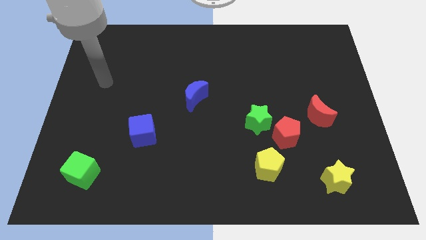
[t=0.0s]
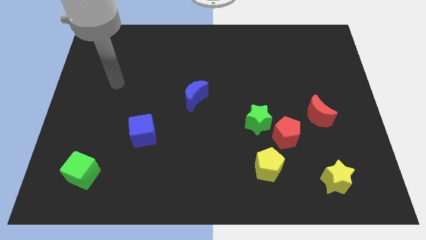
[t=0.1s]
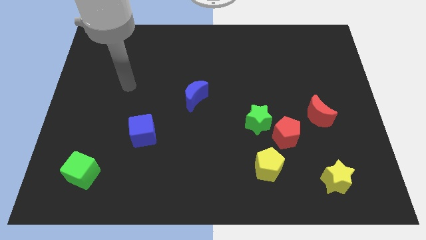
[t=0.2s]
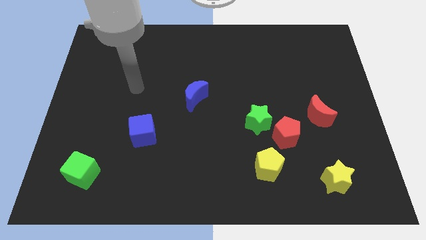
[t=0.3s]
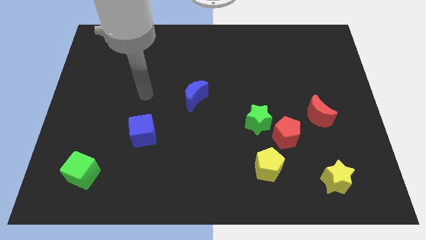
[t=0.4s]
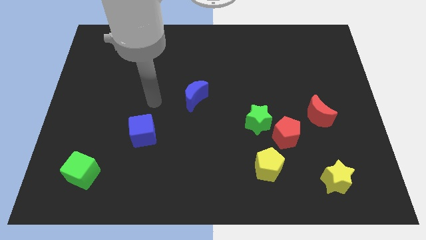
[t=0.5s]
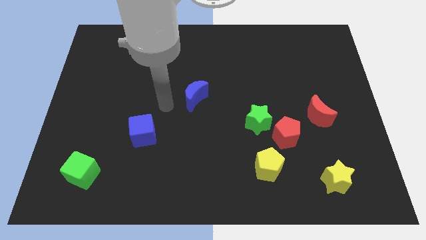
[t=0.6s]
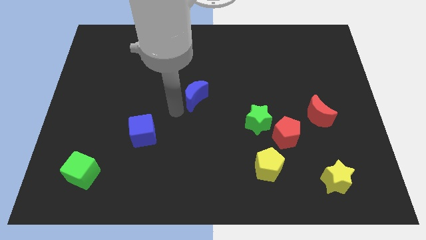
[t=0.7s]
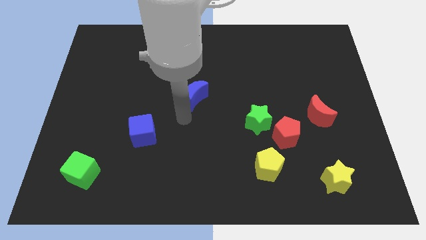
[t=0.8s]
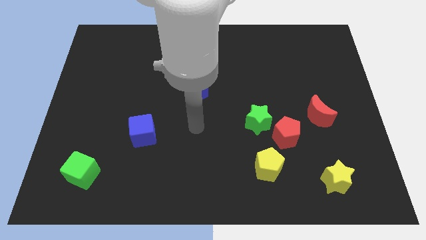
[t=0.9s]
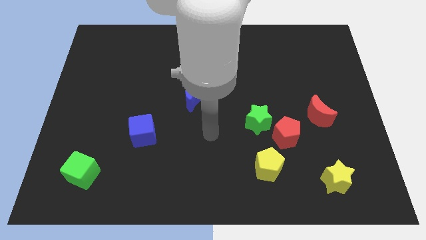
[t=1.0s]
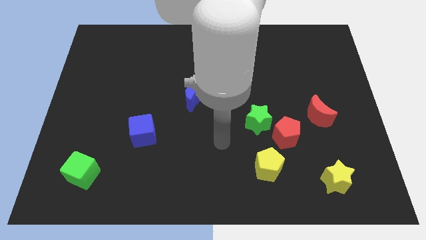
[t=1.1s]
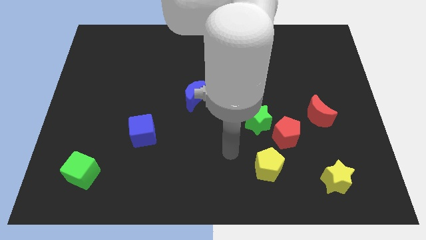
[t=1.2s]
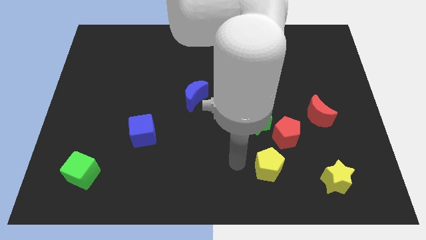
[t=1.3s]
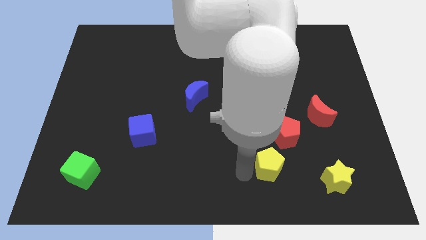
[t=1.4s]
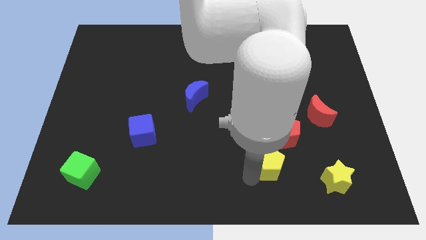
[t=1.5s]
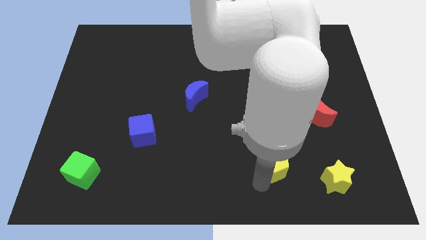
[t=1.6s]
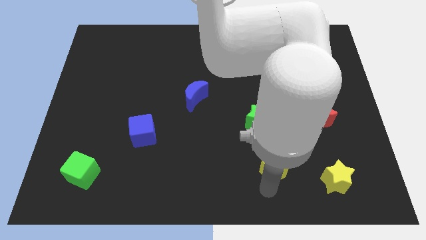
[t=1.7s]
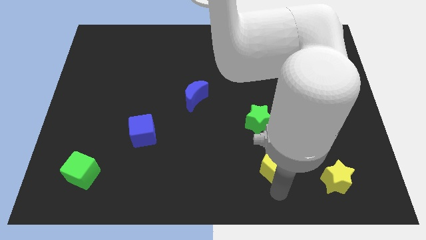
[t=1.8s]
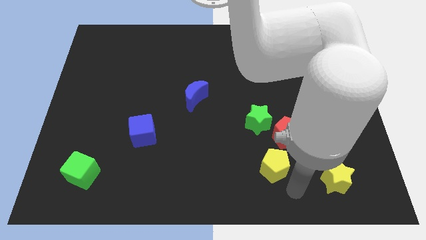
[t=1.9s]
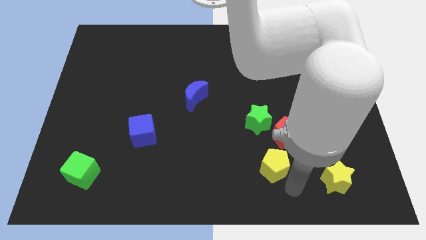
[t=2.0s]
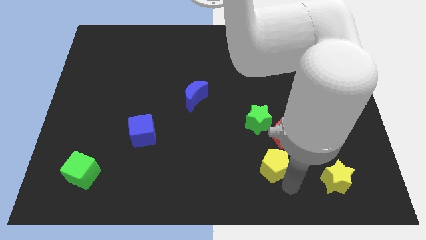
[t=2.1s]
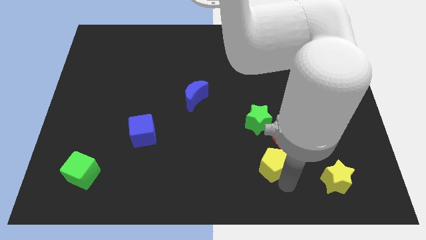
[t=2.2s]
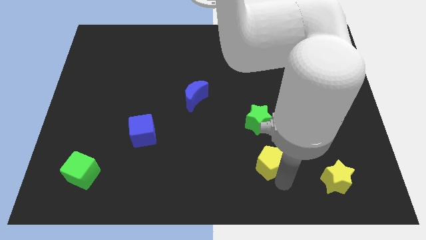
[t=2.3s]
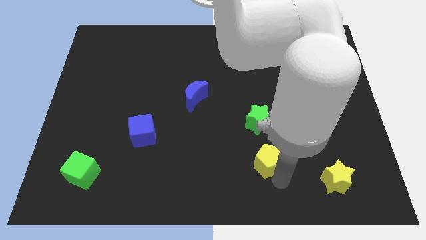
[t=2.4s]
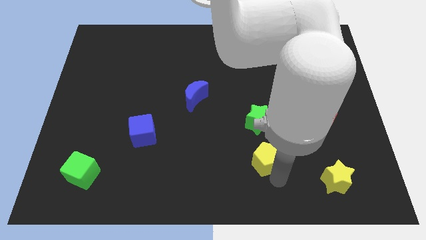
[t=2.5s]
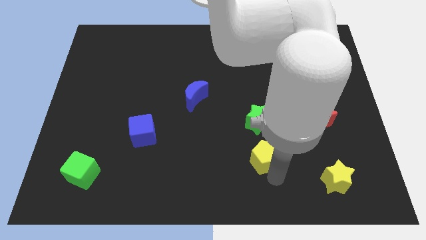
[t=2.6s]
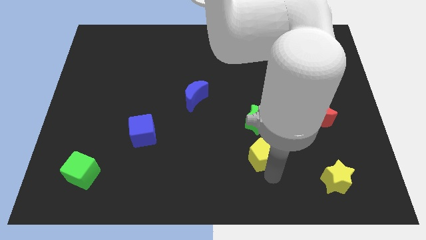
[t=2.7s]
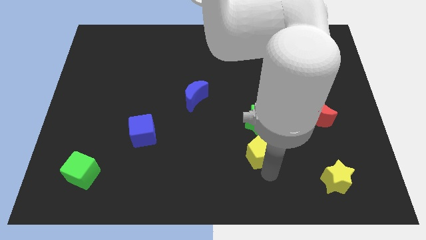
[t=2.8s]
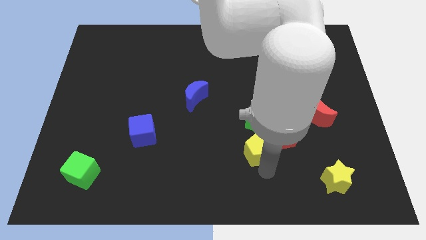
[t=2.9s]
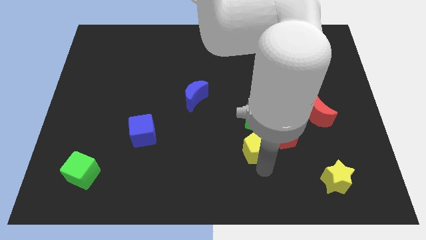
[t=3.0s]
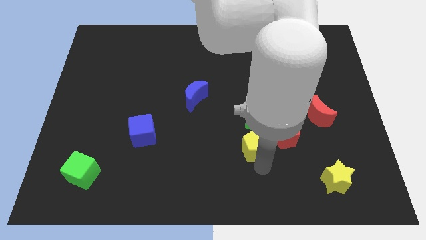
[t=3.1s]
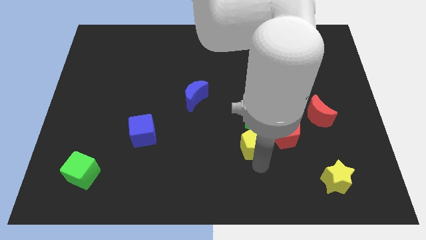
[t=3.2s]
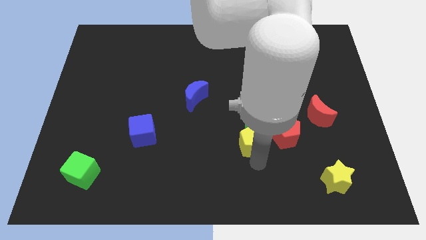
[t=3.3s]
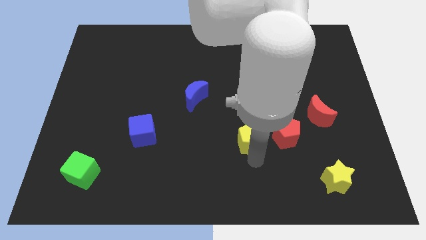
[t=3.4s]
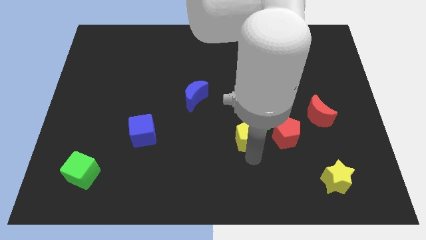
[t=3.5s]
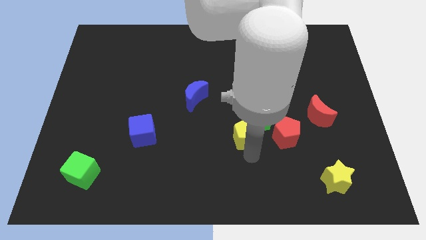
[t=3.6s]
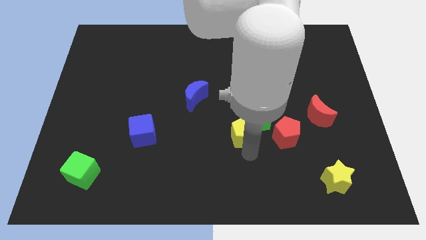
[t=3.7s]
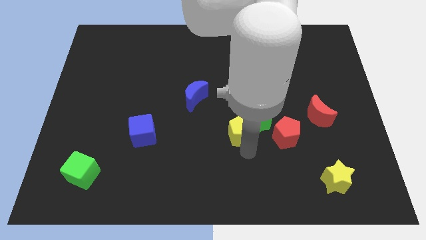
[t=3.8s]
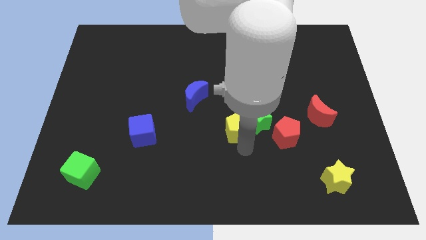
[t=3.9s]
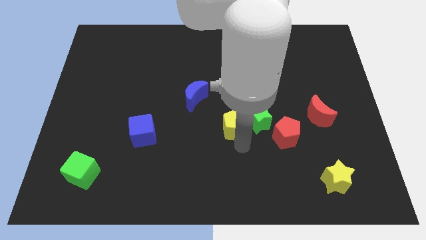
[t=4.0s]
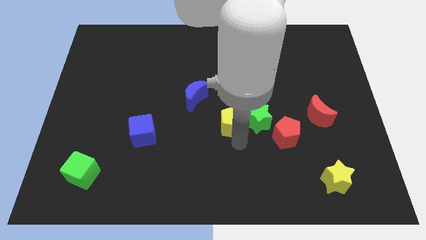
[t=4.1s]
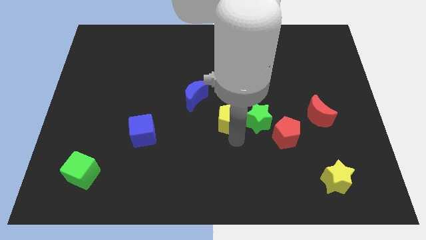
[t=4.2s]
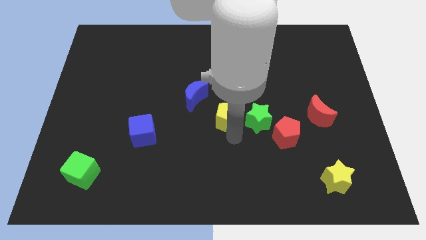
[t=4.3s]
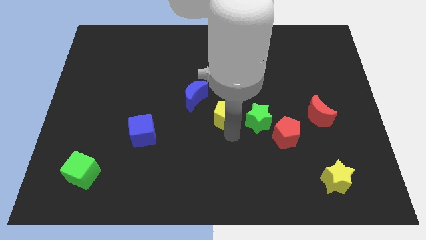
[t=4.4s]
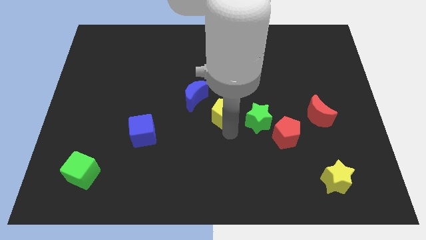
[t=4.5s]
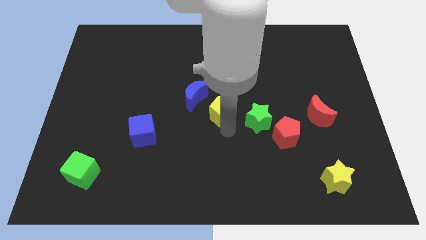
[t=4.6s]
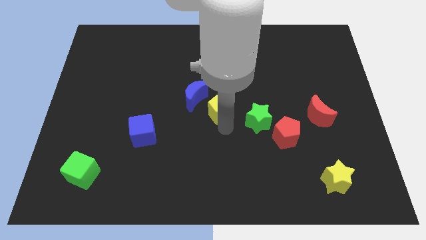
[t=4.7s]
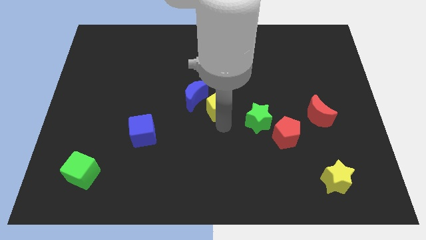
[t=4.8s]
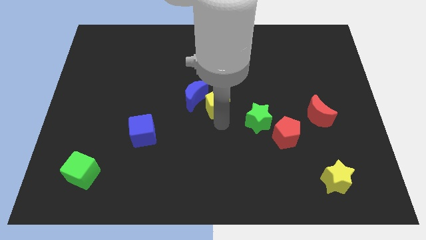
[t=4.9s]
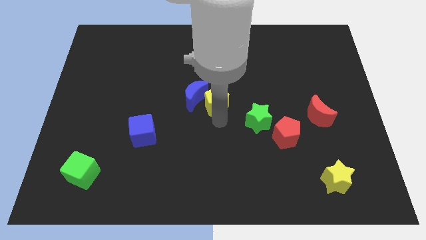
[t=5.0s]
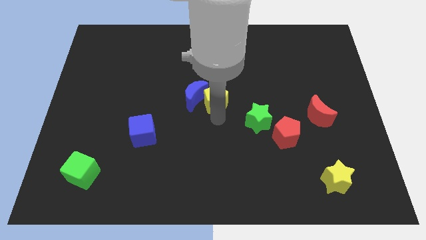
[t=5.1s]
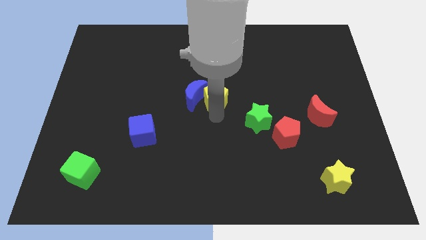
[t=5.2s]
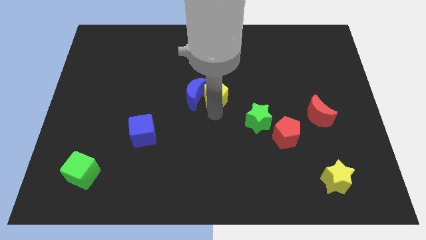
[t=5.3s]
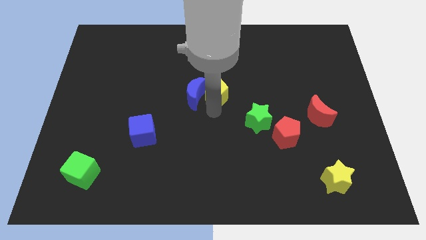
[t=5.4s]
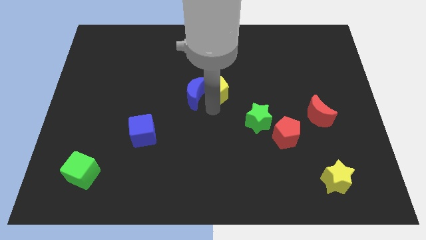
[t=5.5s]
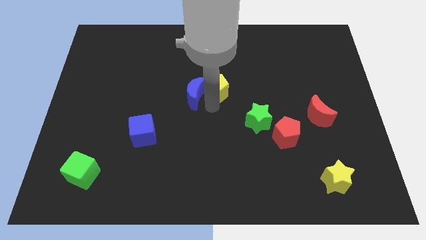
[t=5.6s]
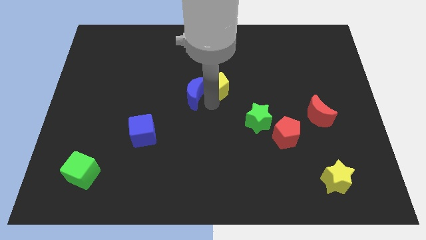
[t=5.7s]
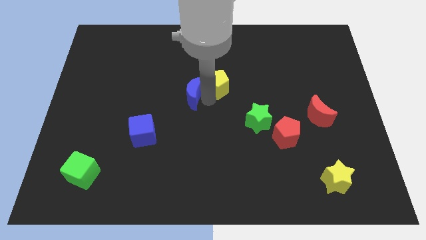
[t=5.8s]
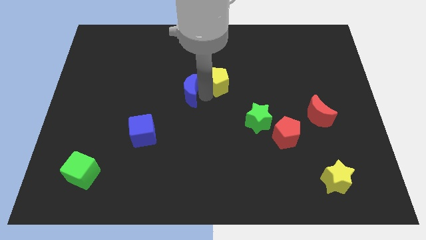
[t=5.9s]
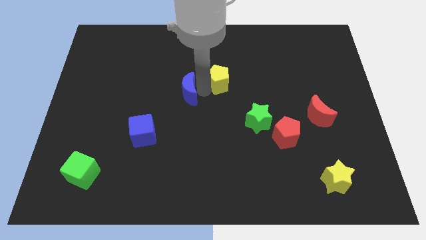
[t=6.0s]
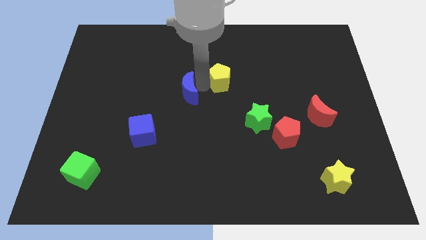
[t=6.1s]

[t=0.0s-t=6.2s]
move the yellow pentagon upwards

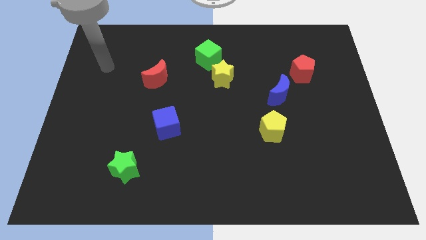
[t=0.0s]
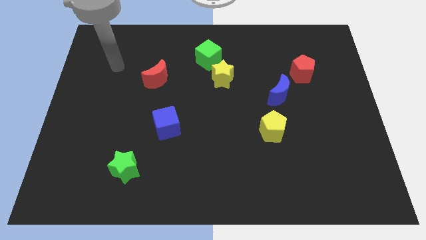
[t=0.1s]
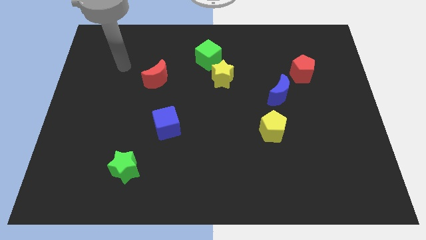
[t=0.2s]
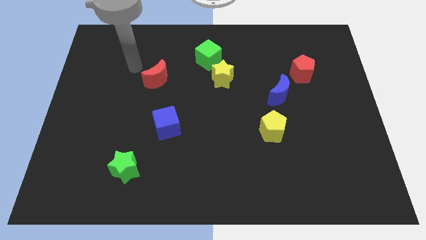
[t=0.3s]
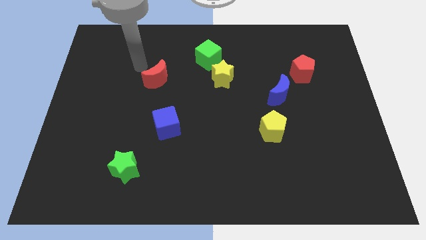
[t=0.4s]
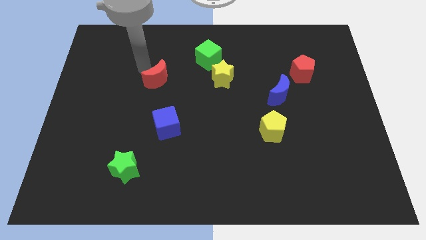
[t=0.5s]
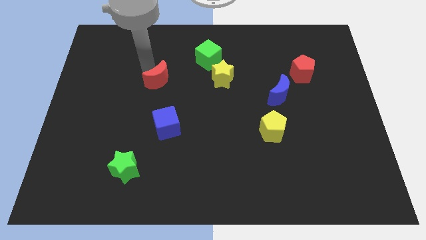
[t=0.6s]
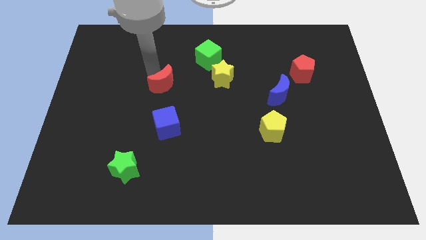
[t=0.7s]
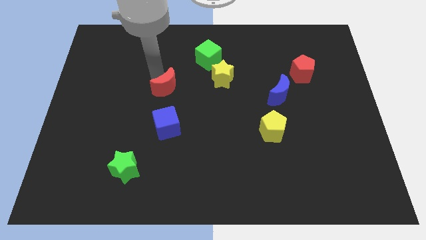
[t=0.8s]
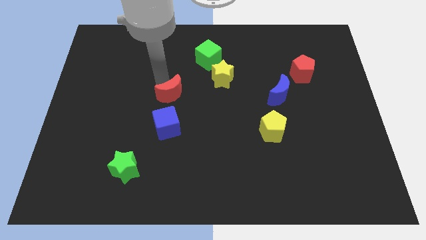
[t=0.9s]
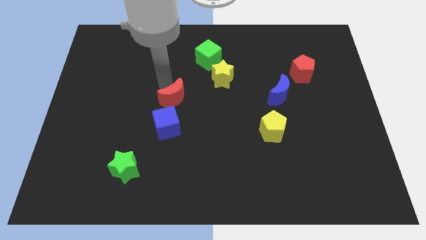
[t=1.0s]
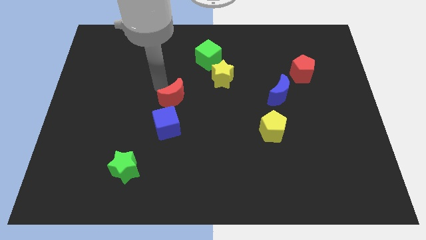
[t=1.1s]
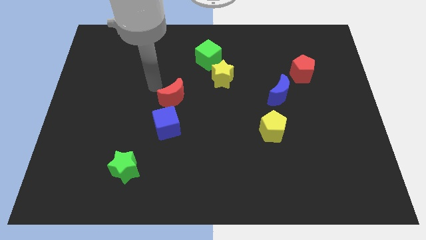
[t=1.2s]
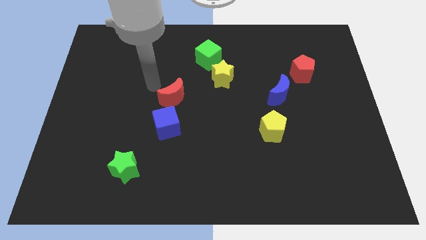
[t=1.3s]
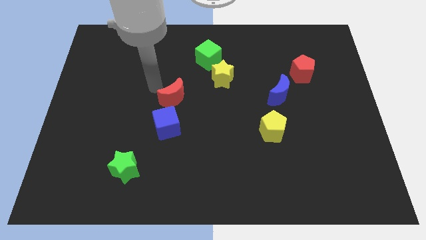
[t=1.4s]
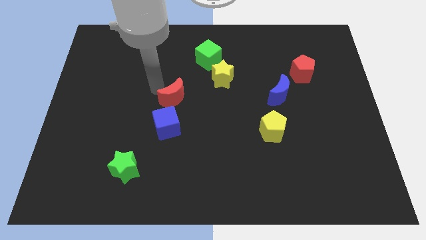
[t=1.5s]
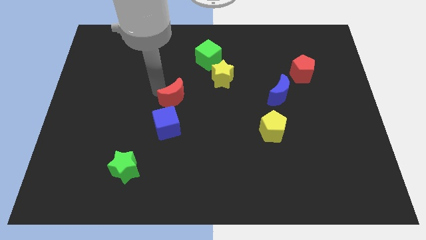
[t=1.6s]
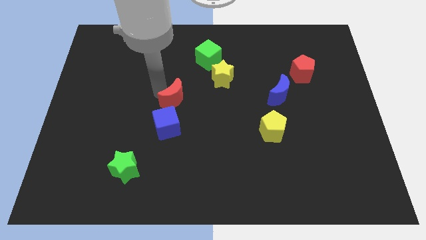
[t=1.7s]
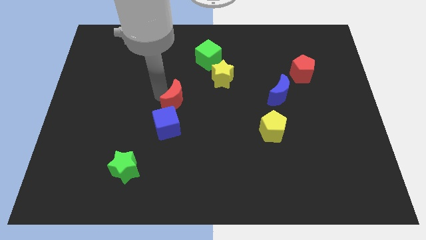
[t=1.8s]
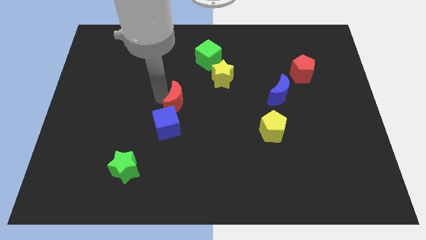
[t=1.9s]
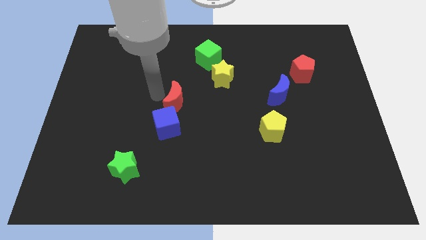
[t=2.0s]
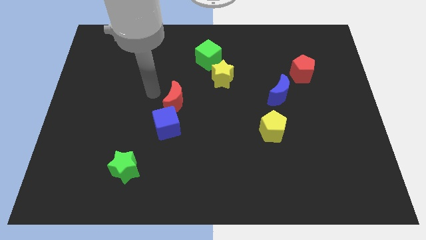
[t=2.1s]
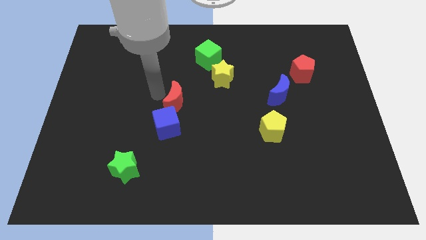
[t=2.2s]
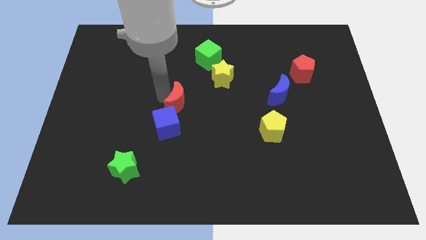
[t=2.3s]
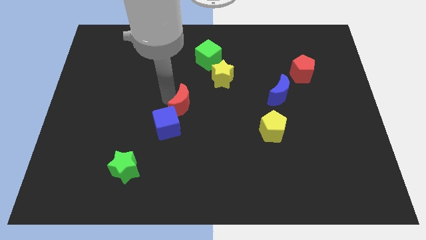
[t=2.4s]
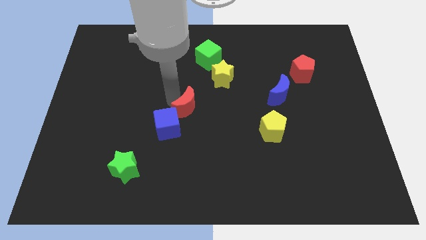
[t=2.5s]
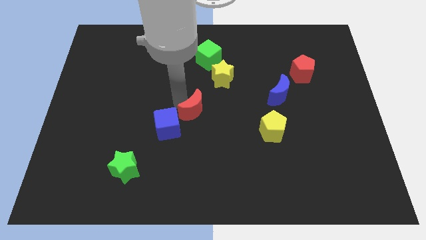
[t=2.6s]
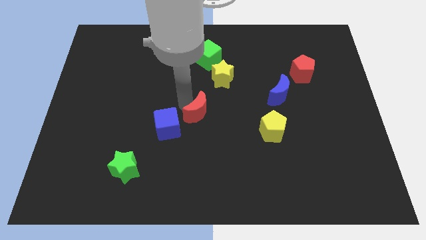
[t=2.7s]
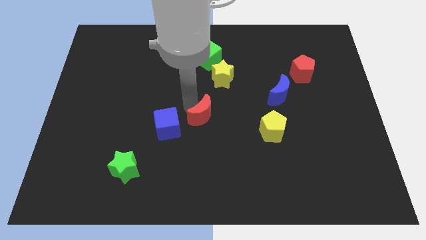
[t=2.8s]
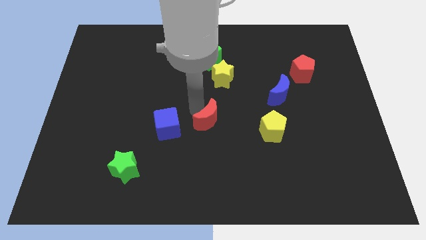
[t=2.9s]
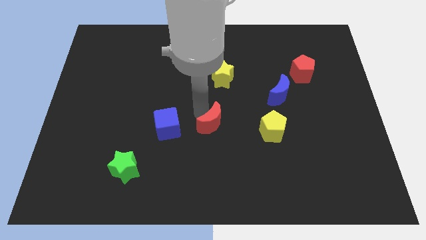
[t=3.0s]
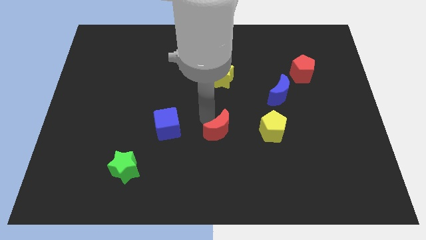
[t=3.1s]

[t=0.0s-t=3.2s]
push the red moon diagonally down and right
